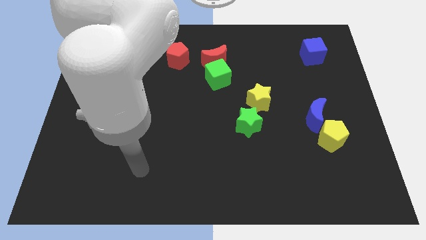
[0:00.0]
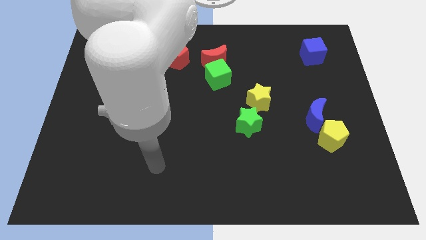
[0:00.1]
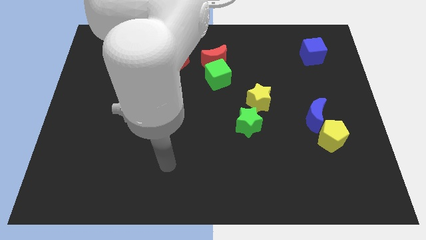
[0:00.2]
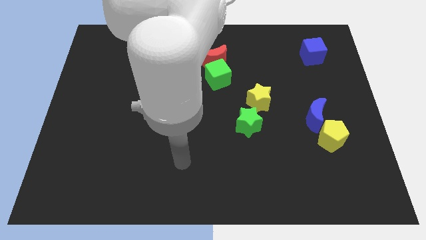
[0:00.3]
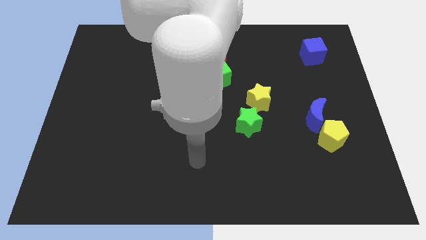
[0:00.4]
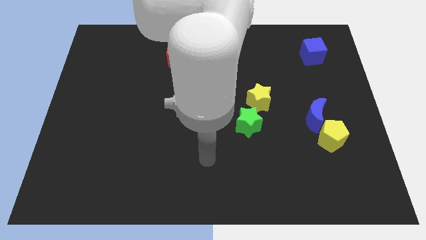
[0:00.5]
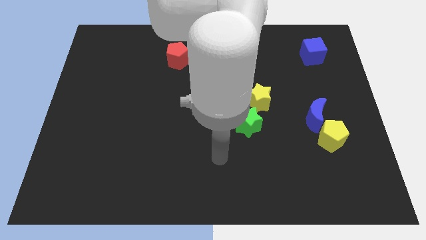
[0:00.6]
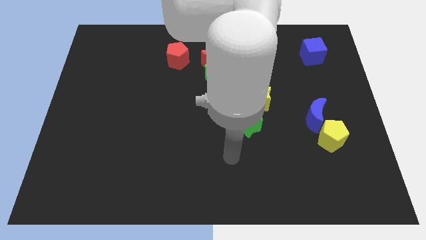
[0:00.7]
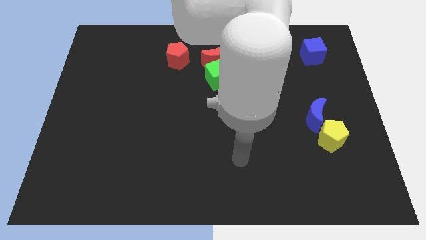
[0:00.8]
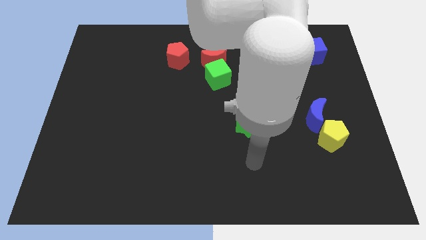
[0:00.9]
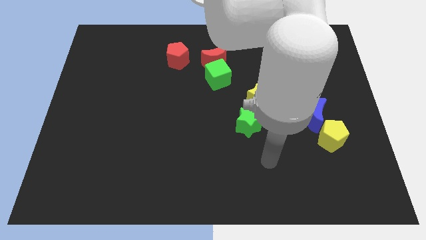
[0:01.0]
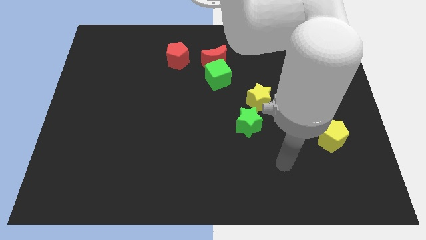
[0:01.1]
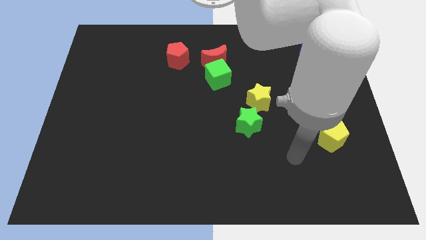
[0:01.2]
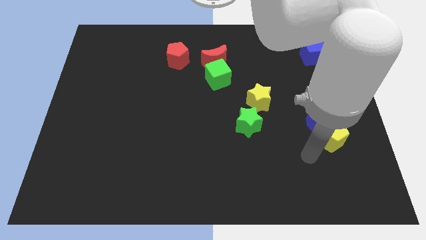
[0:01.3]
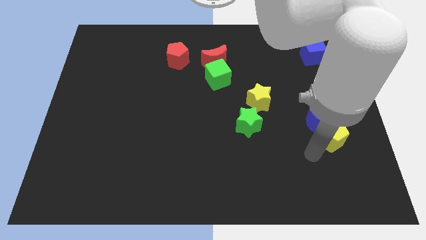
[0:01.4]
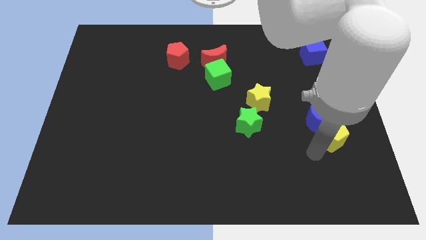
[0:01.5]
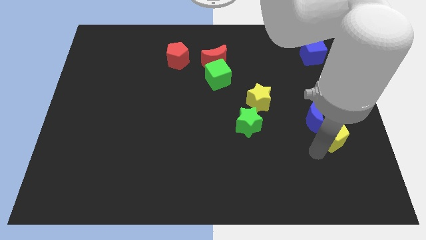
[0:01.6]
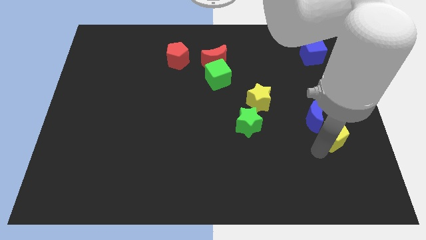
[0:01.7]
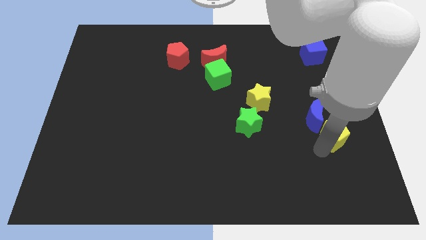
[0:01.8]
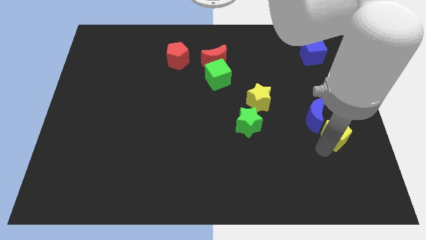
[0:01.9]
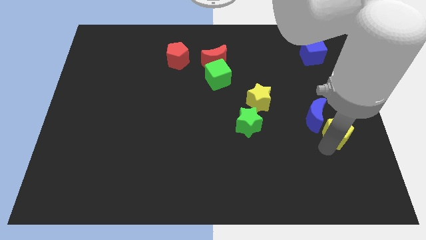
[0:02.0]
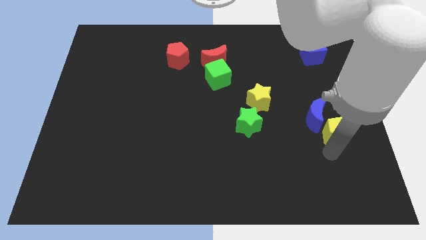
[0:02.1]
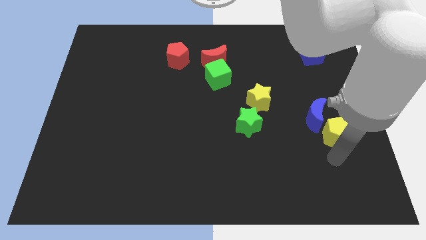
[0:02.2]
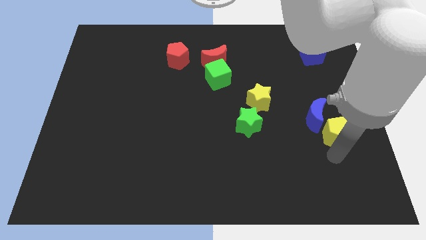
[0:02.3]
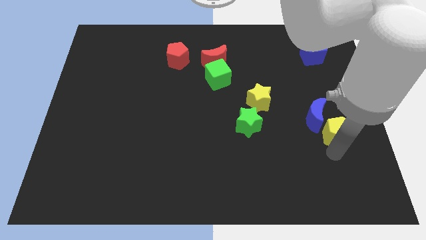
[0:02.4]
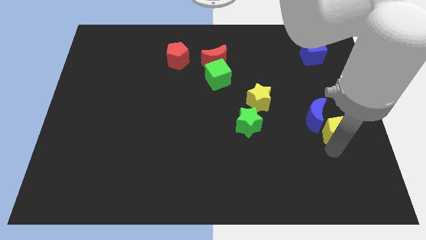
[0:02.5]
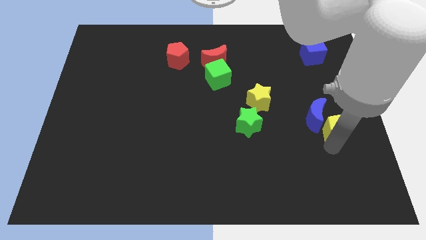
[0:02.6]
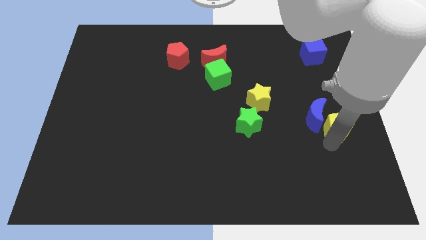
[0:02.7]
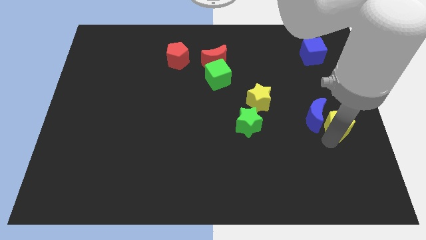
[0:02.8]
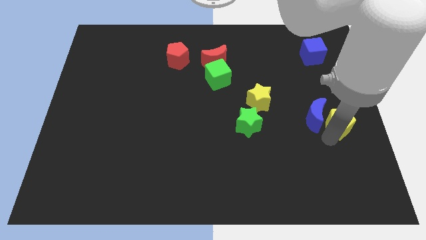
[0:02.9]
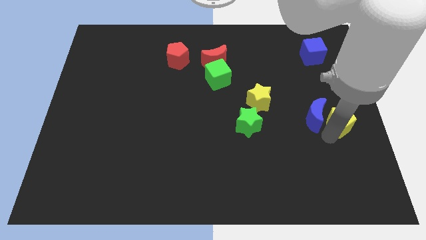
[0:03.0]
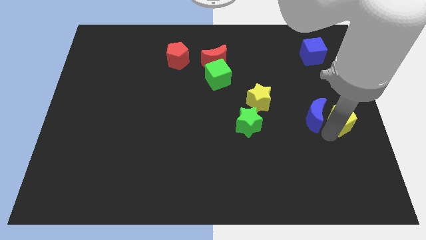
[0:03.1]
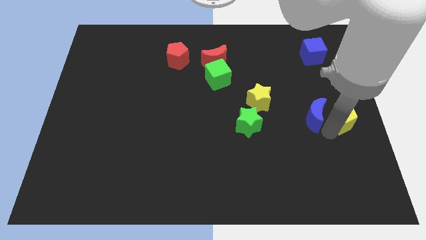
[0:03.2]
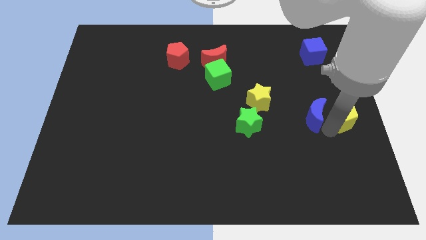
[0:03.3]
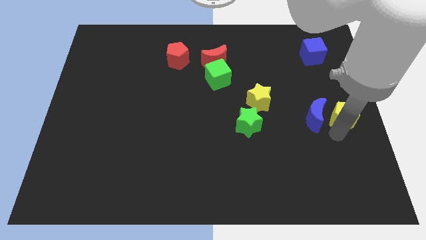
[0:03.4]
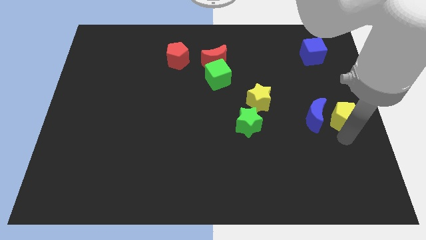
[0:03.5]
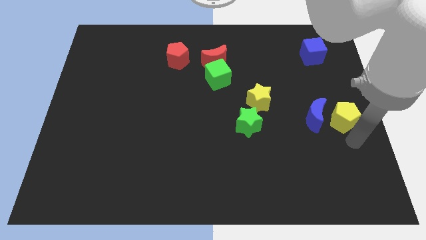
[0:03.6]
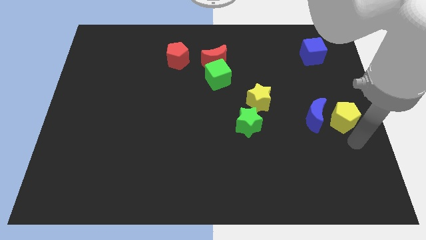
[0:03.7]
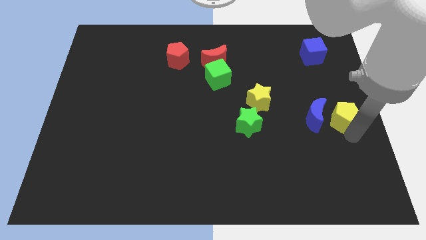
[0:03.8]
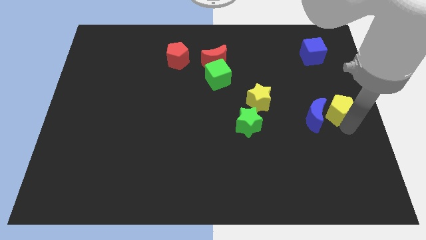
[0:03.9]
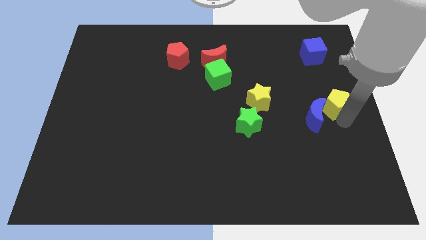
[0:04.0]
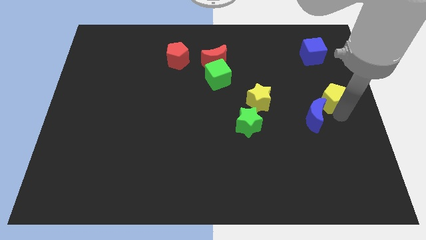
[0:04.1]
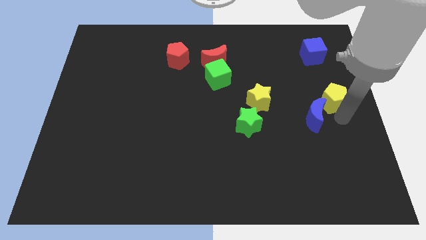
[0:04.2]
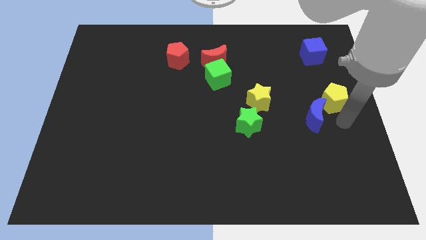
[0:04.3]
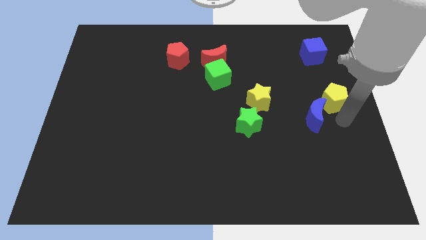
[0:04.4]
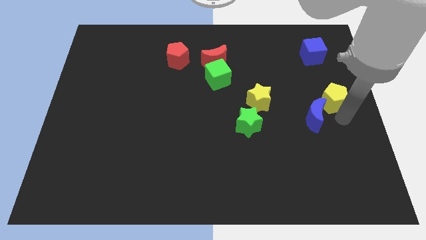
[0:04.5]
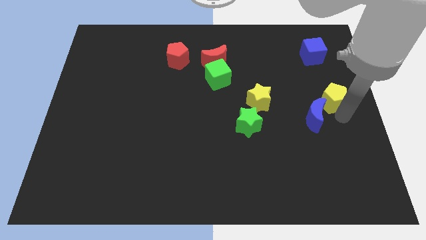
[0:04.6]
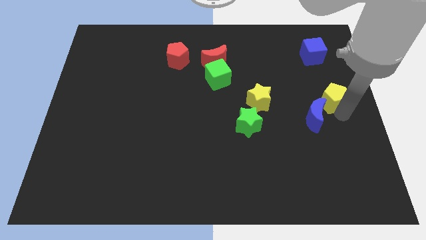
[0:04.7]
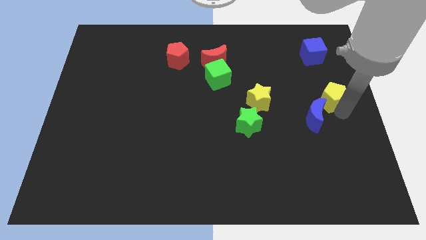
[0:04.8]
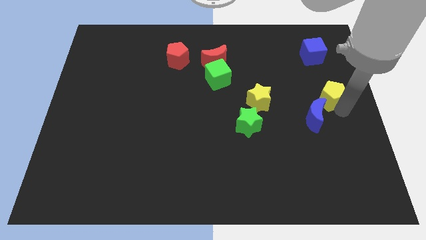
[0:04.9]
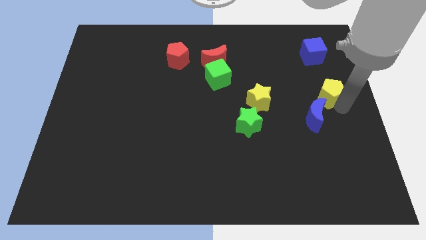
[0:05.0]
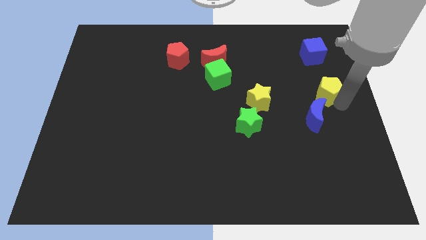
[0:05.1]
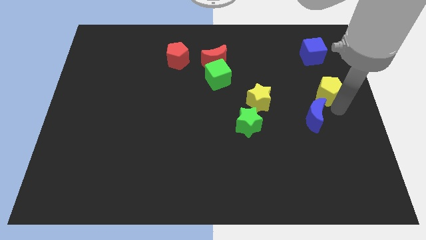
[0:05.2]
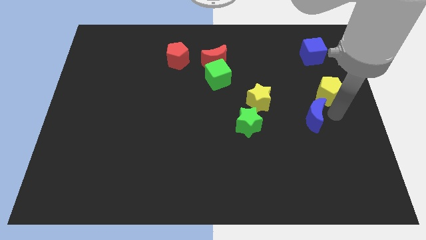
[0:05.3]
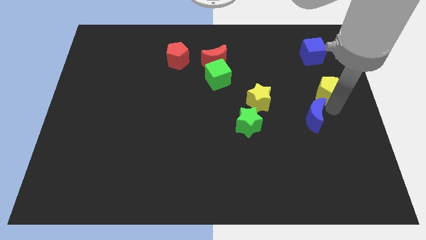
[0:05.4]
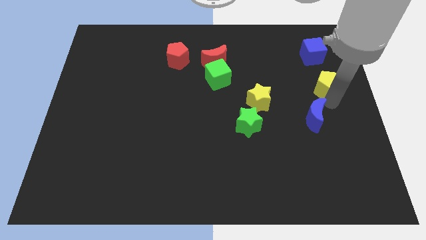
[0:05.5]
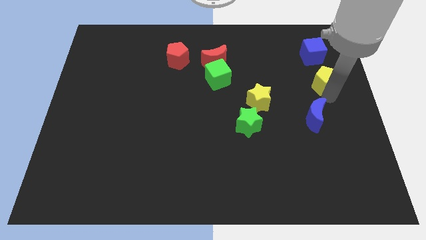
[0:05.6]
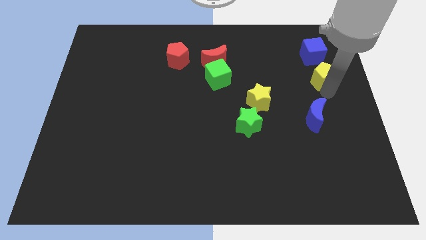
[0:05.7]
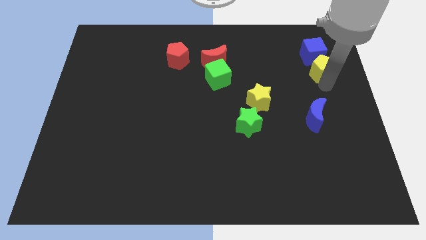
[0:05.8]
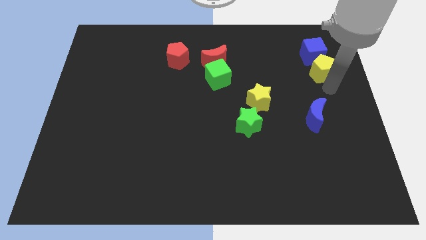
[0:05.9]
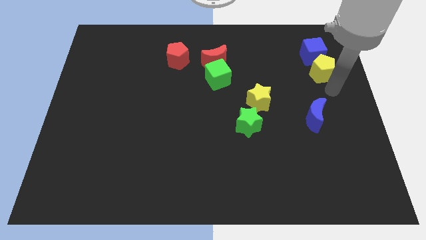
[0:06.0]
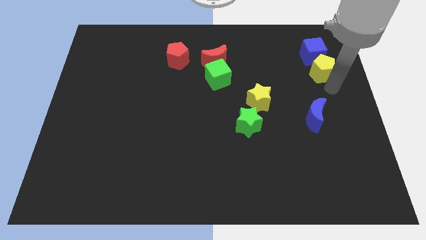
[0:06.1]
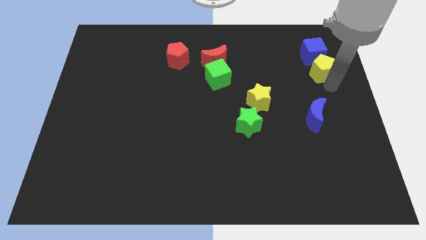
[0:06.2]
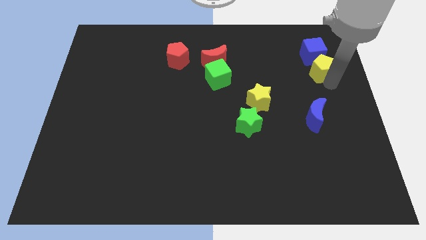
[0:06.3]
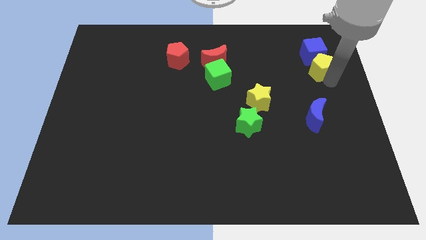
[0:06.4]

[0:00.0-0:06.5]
move the yellow pentagon close to the blue cube

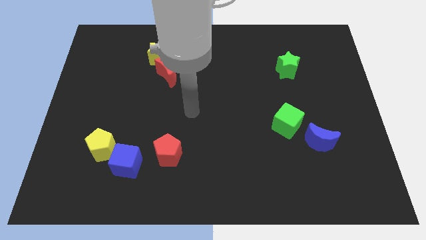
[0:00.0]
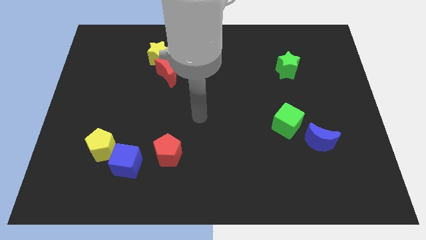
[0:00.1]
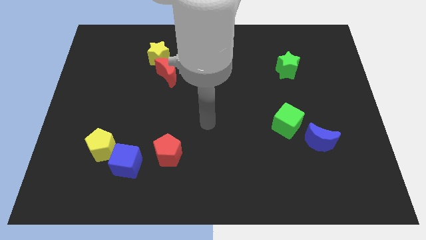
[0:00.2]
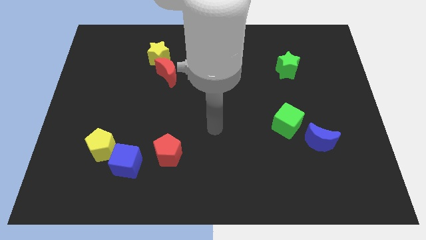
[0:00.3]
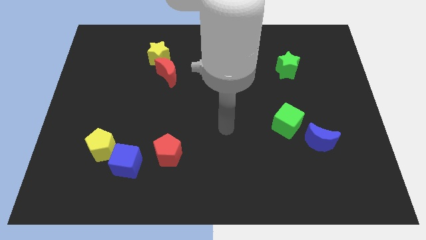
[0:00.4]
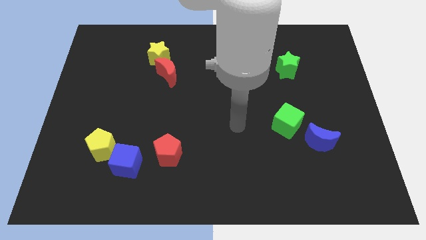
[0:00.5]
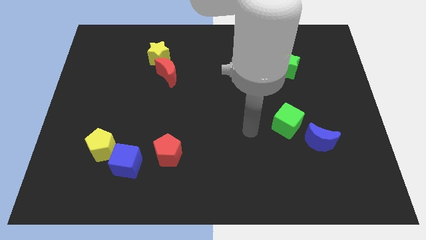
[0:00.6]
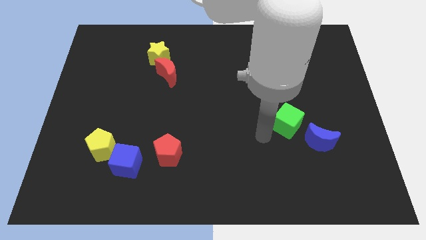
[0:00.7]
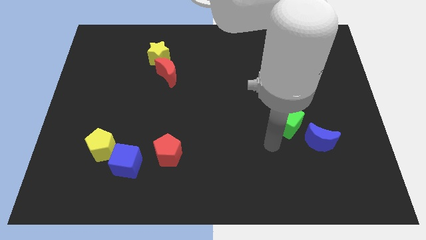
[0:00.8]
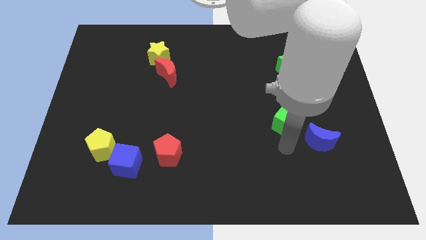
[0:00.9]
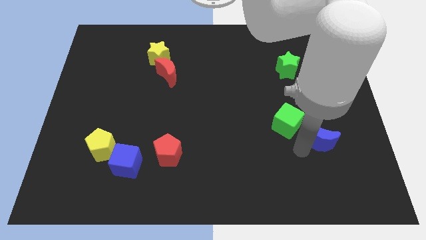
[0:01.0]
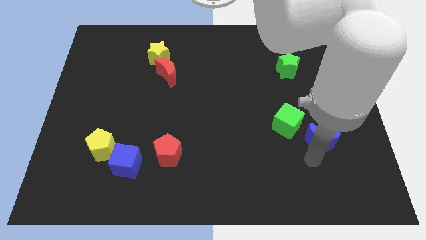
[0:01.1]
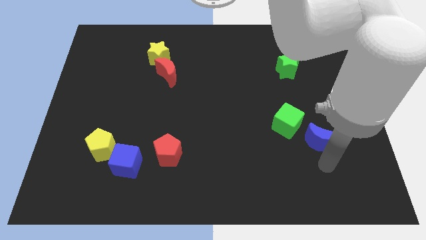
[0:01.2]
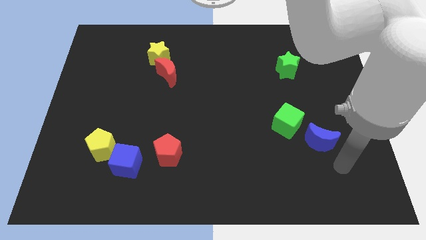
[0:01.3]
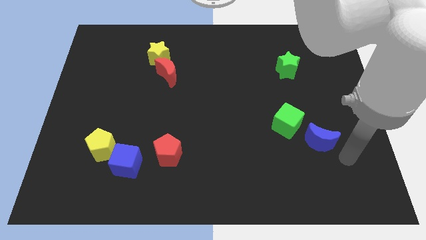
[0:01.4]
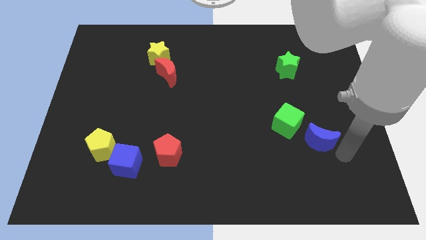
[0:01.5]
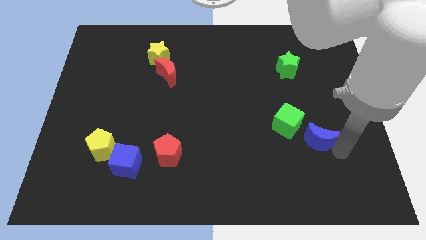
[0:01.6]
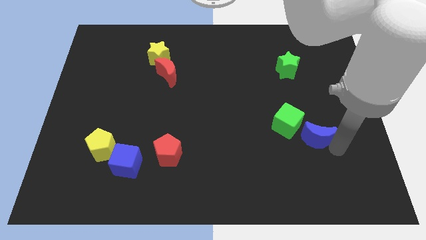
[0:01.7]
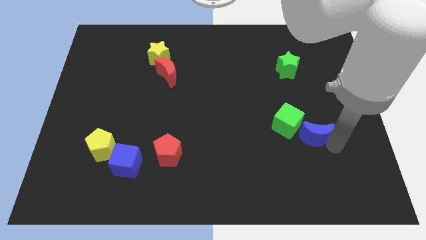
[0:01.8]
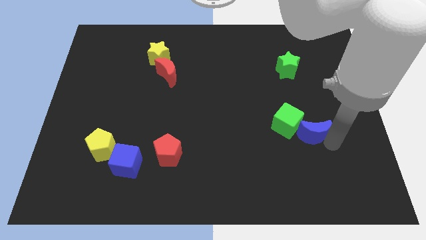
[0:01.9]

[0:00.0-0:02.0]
push the blue moon towards the green cube
